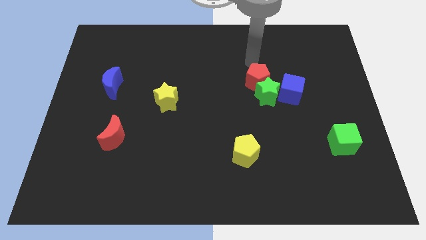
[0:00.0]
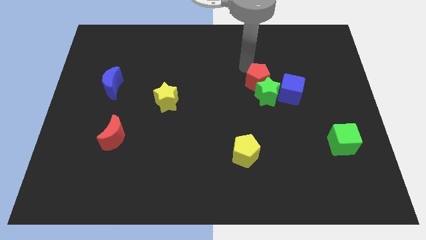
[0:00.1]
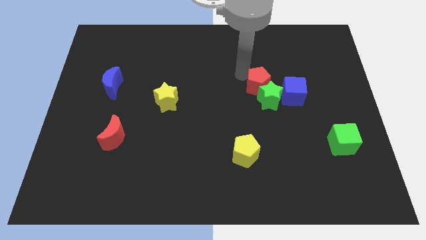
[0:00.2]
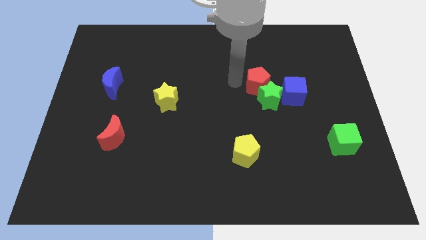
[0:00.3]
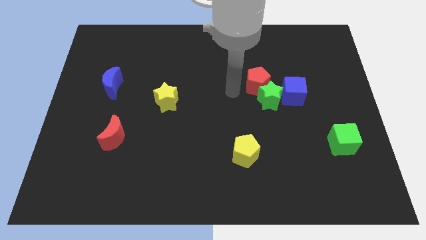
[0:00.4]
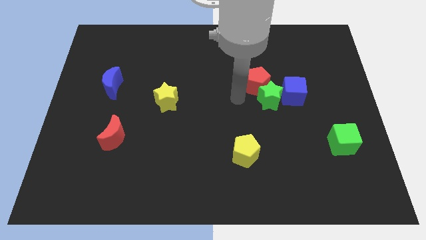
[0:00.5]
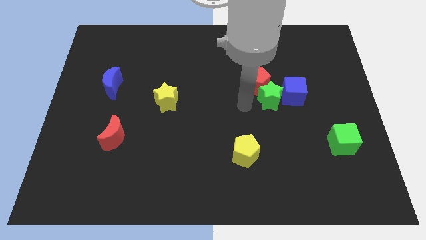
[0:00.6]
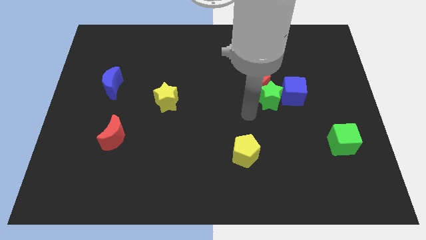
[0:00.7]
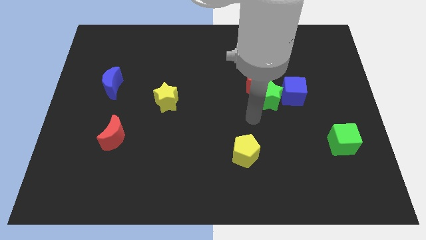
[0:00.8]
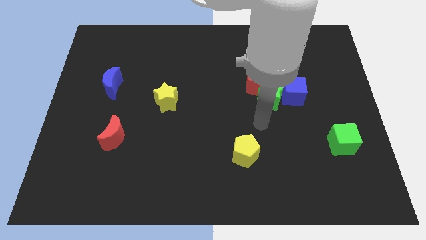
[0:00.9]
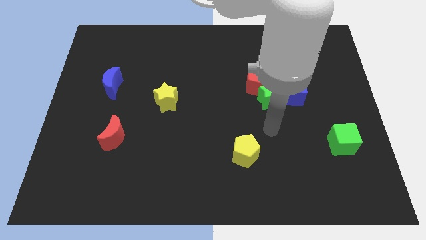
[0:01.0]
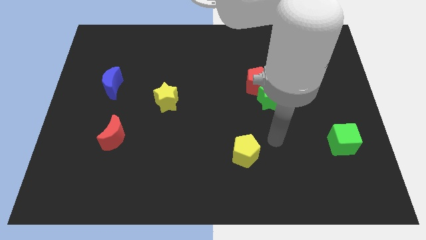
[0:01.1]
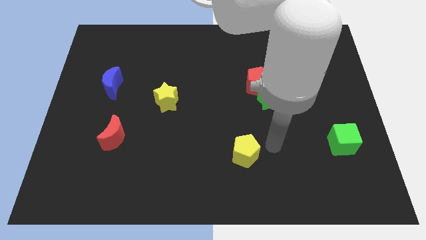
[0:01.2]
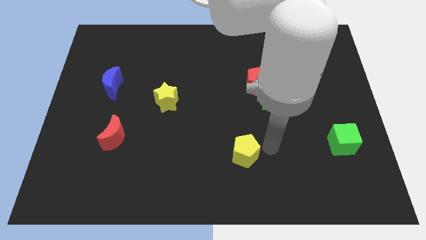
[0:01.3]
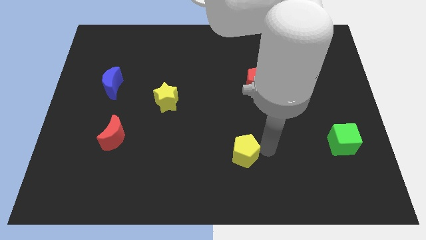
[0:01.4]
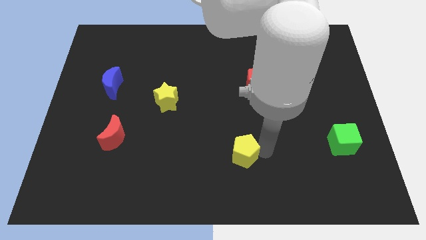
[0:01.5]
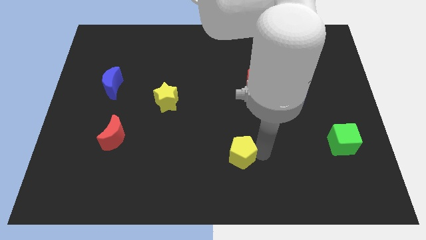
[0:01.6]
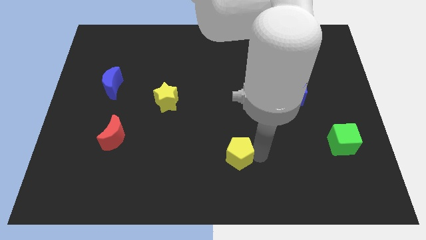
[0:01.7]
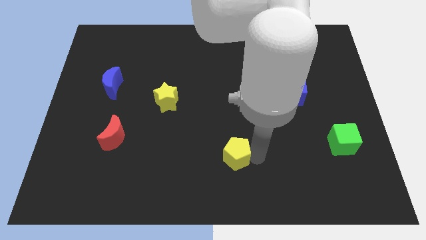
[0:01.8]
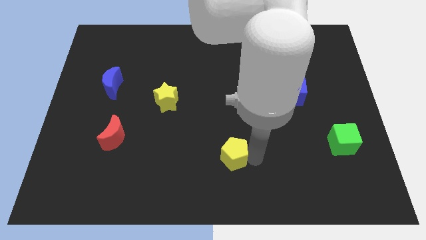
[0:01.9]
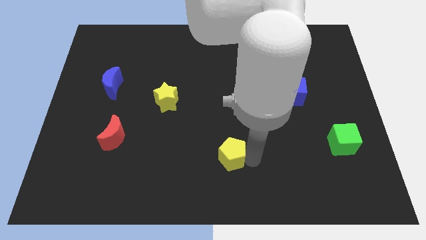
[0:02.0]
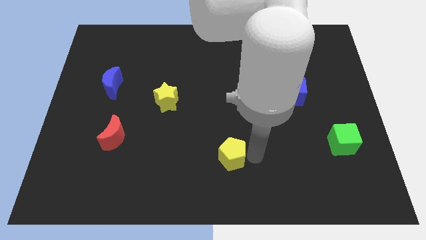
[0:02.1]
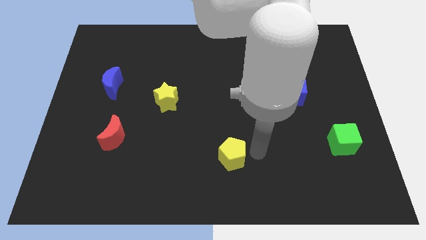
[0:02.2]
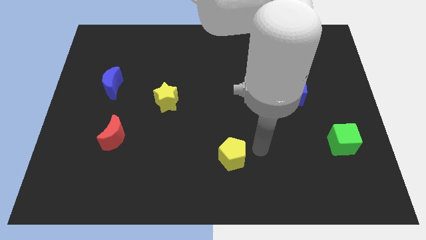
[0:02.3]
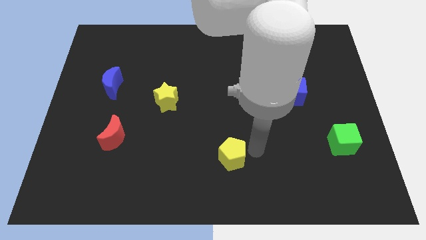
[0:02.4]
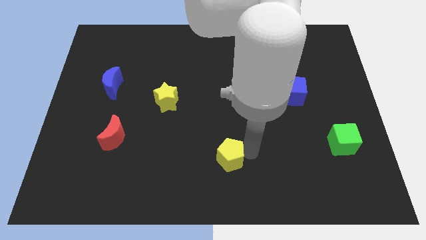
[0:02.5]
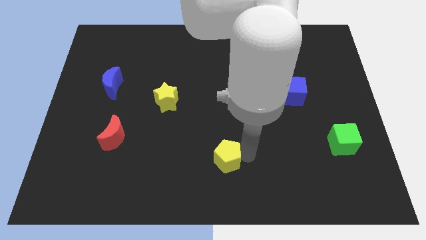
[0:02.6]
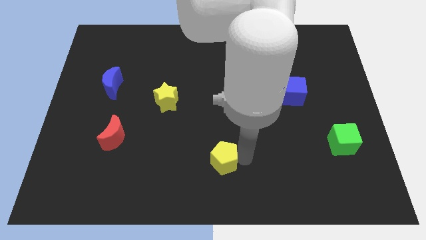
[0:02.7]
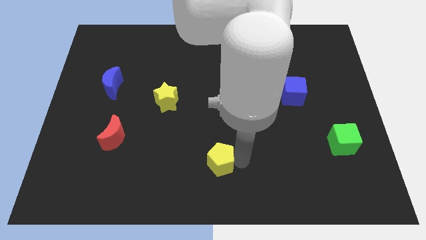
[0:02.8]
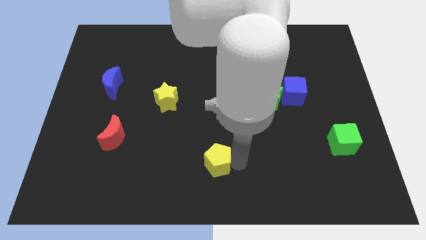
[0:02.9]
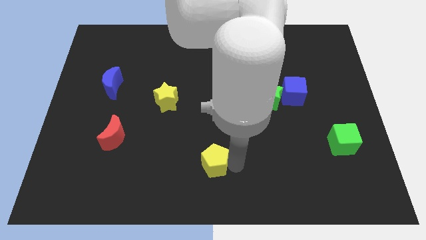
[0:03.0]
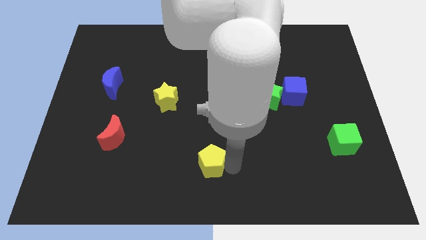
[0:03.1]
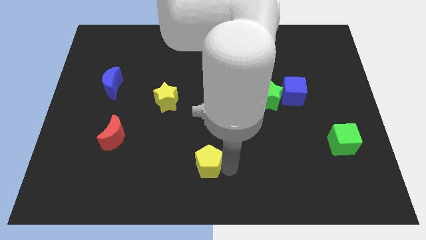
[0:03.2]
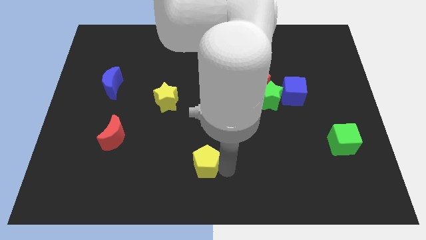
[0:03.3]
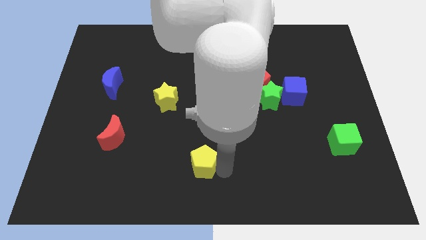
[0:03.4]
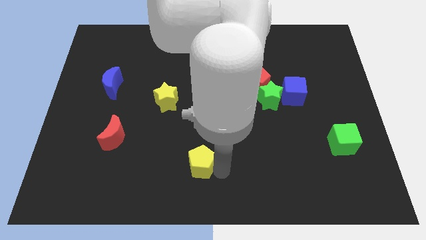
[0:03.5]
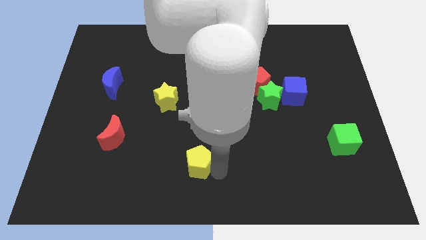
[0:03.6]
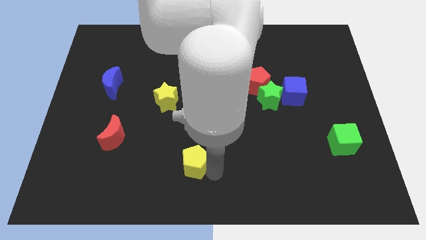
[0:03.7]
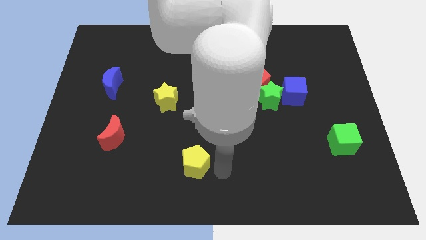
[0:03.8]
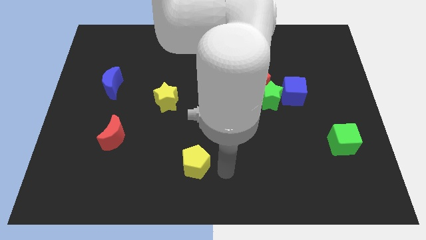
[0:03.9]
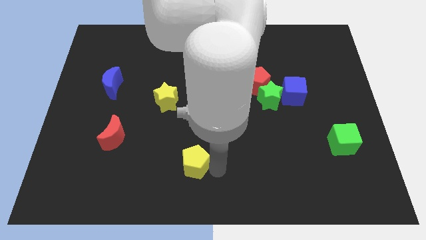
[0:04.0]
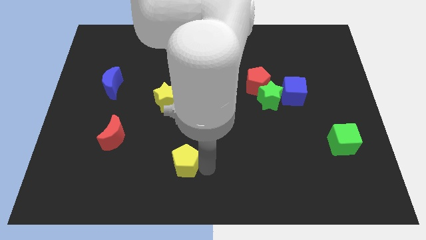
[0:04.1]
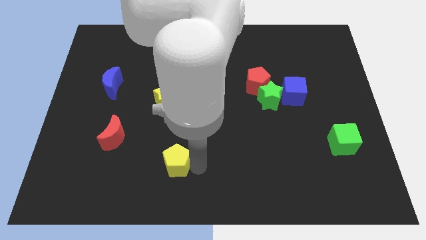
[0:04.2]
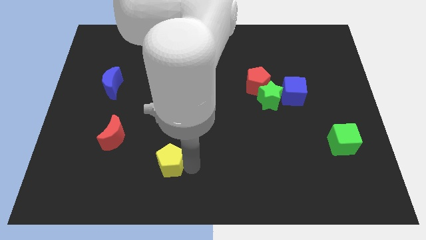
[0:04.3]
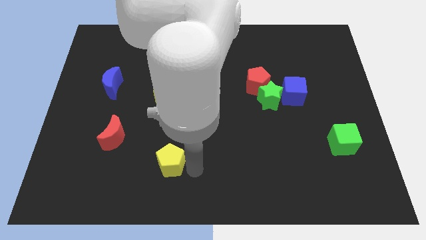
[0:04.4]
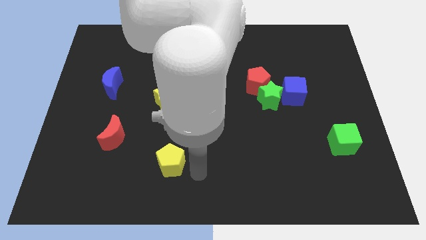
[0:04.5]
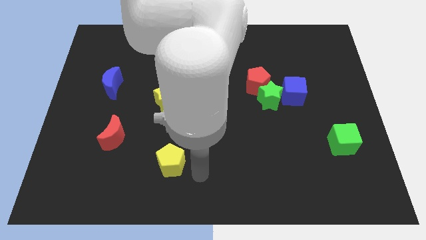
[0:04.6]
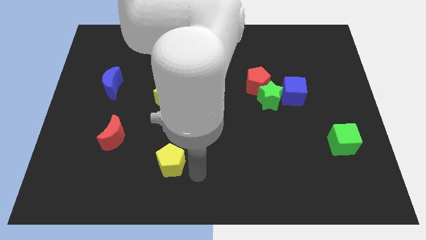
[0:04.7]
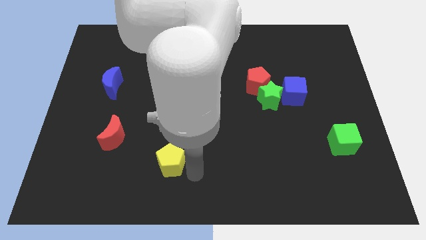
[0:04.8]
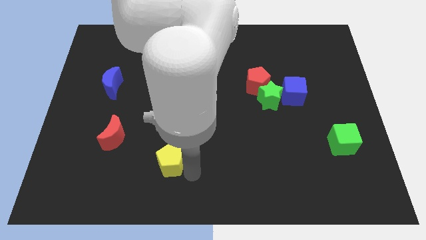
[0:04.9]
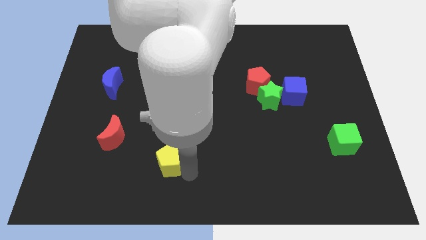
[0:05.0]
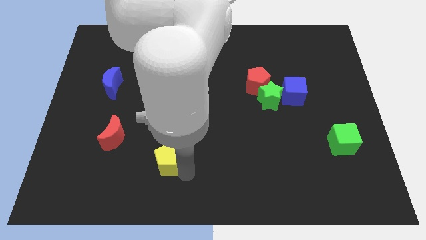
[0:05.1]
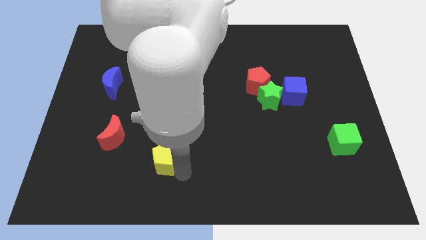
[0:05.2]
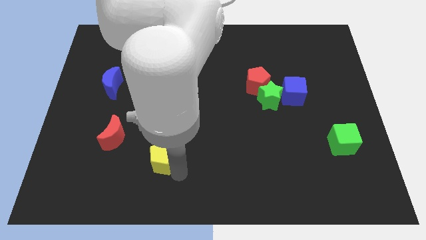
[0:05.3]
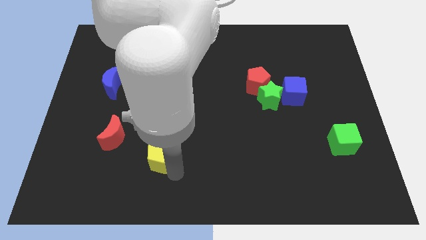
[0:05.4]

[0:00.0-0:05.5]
slide the yellow pentagon to the bottom right side of the red moon

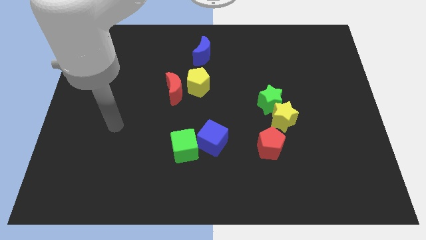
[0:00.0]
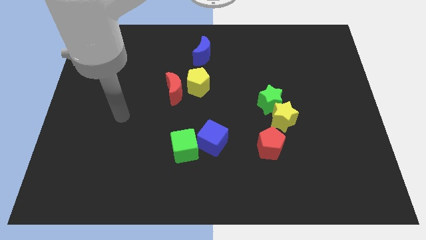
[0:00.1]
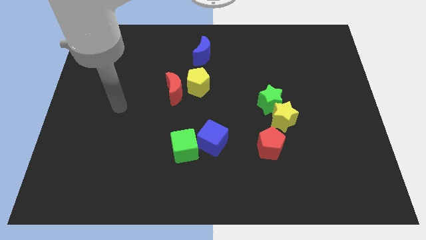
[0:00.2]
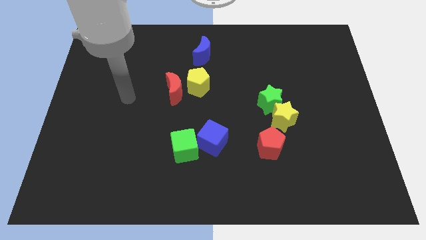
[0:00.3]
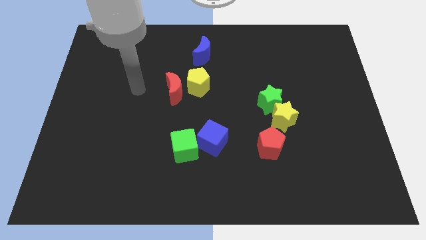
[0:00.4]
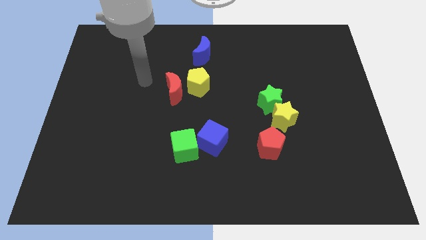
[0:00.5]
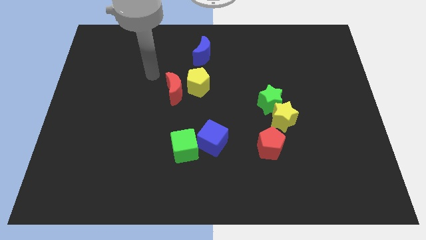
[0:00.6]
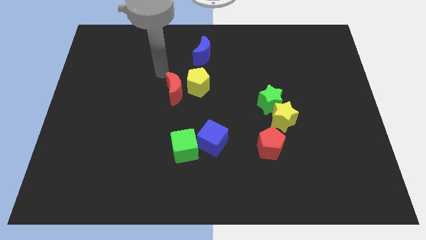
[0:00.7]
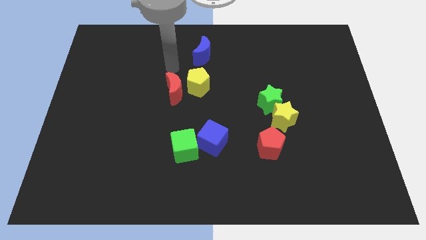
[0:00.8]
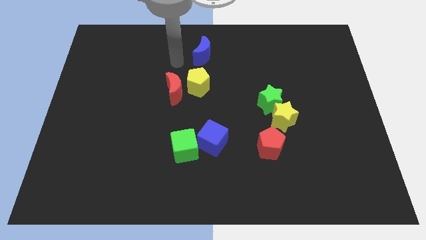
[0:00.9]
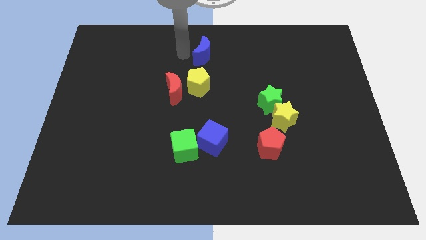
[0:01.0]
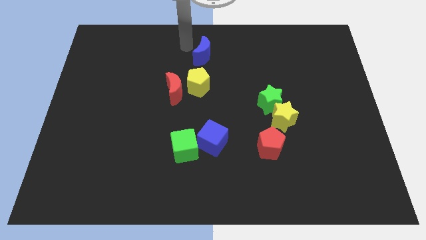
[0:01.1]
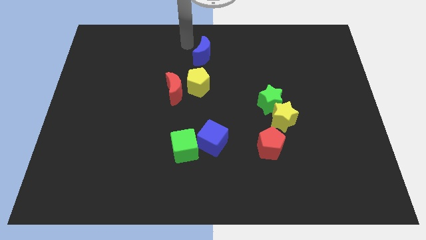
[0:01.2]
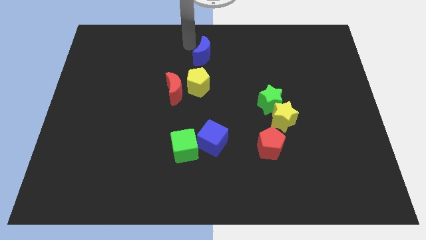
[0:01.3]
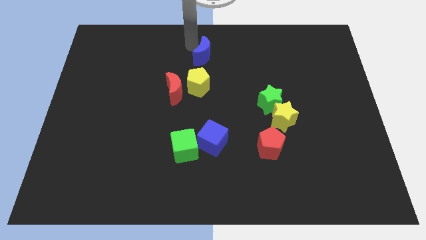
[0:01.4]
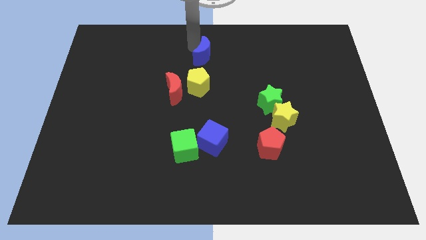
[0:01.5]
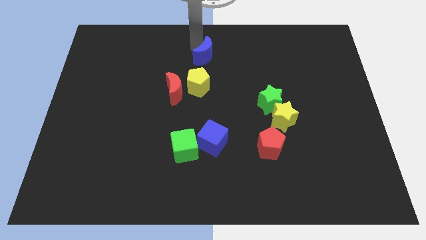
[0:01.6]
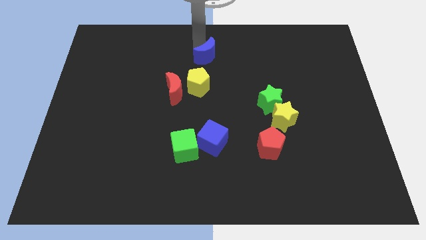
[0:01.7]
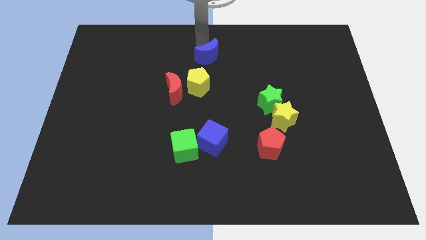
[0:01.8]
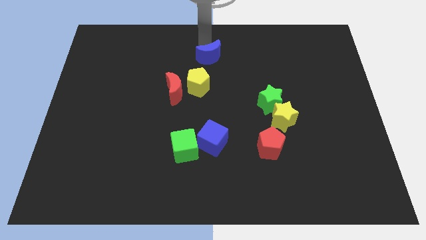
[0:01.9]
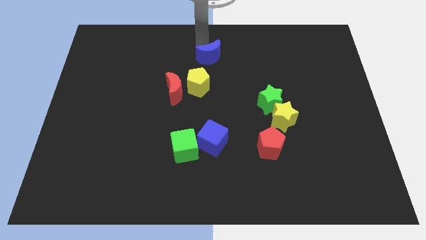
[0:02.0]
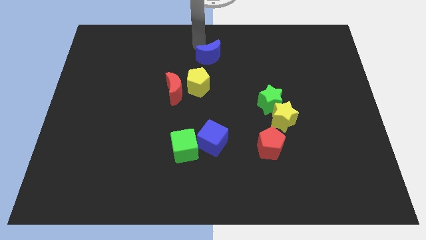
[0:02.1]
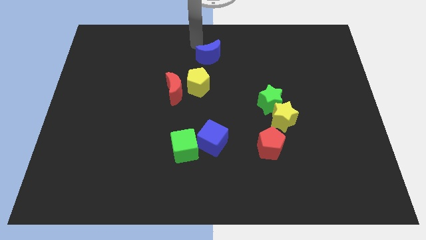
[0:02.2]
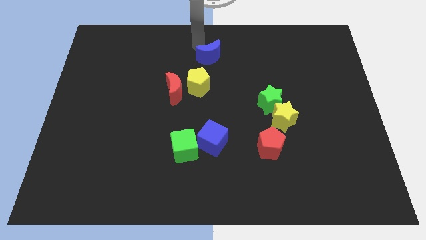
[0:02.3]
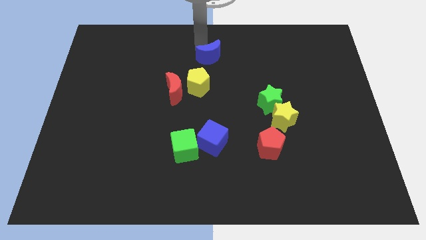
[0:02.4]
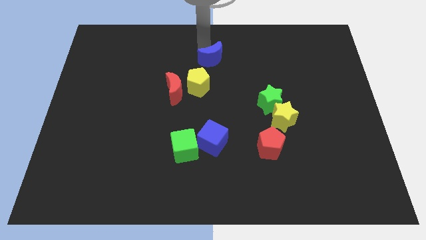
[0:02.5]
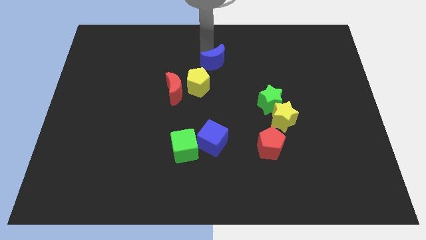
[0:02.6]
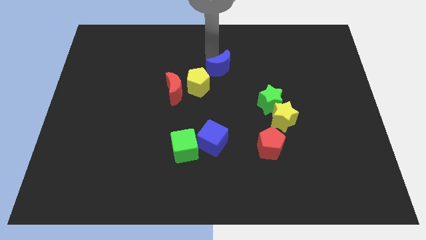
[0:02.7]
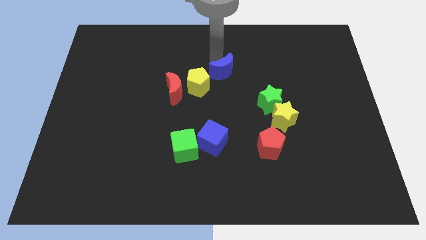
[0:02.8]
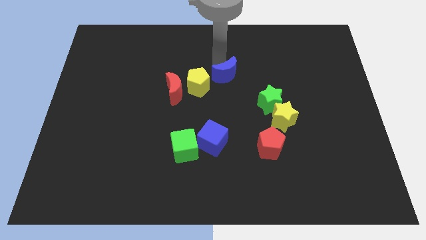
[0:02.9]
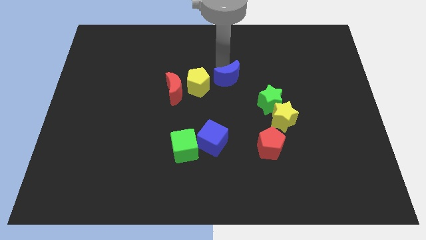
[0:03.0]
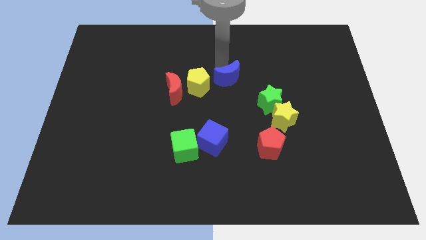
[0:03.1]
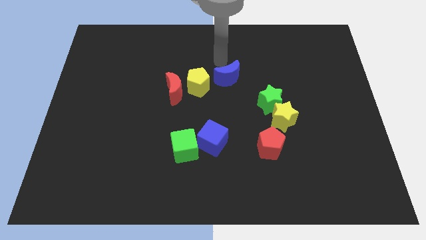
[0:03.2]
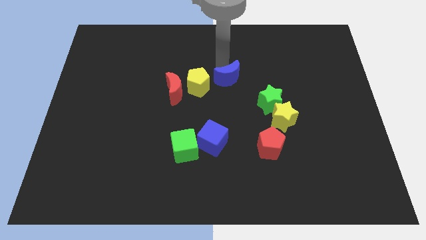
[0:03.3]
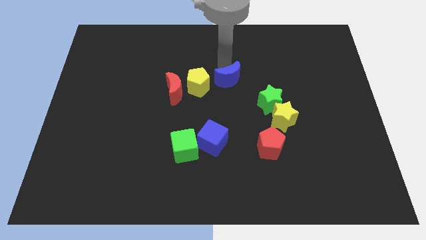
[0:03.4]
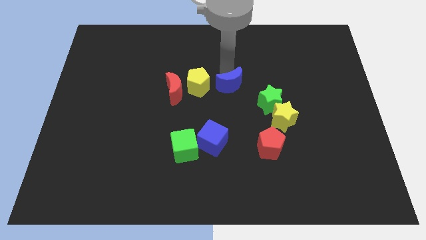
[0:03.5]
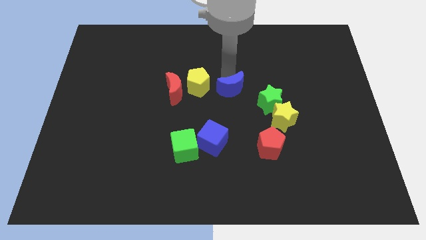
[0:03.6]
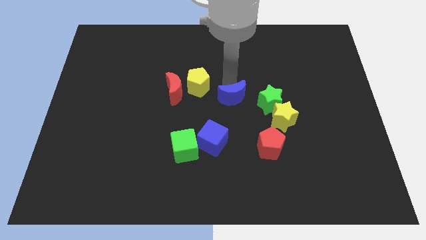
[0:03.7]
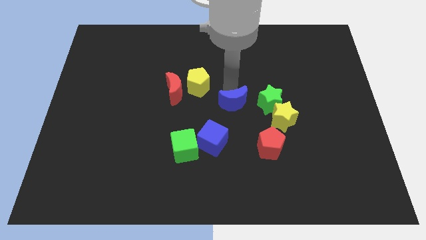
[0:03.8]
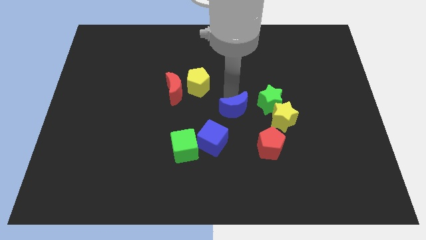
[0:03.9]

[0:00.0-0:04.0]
move the blue moon diagonally down and to the left of the green star
